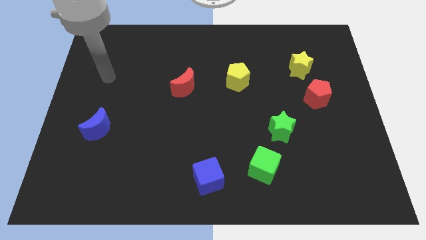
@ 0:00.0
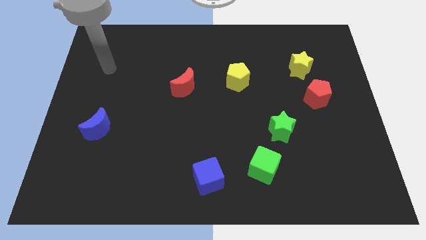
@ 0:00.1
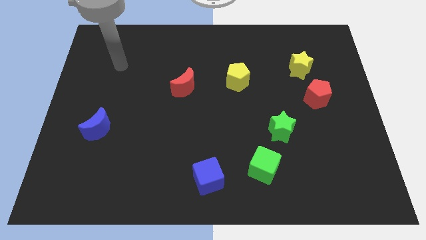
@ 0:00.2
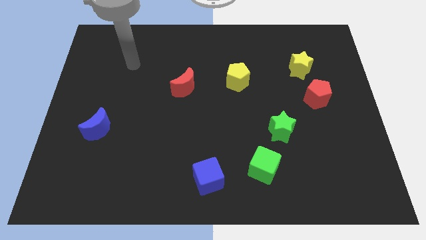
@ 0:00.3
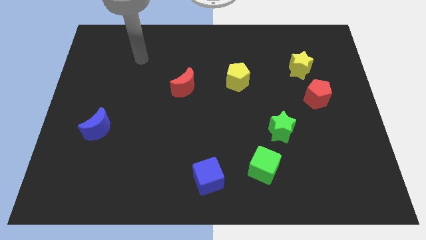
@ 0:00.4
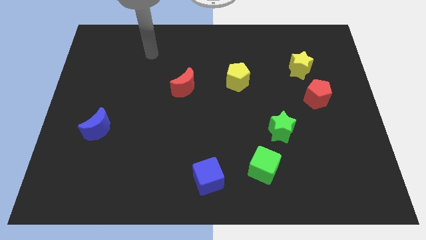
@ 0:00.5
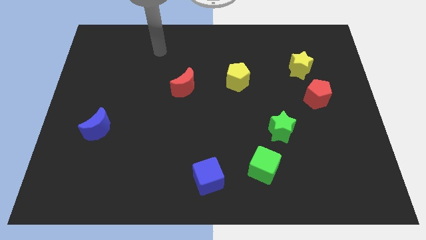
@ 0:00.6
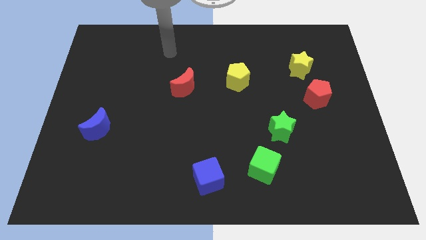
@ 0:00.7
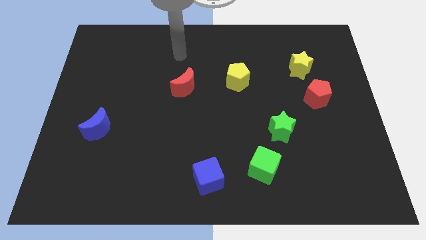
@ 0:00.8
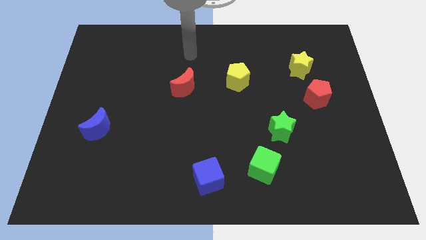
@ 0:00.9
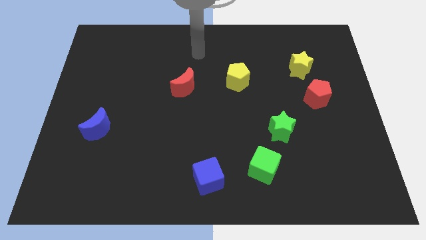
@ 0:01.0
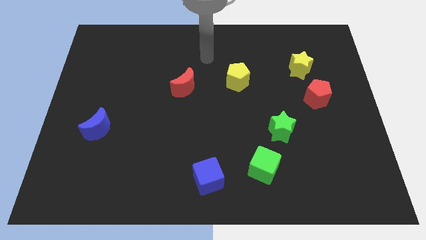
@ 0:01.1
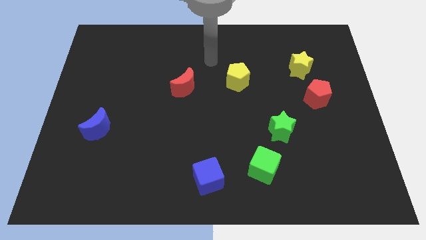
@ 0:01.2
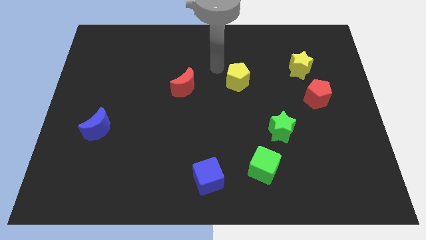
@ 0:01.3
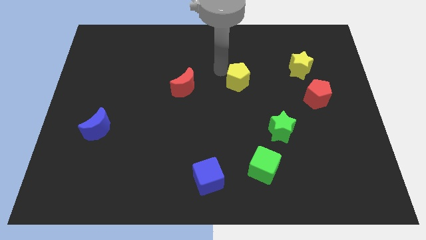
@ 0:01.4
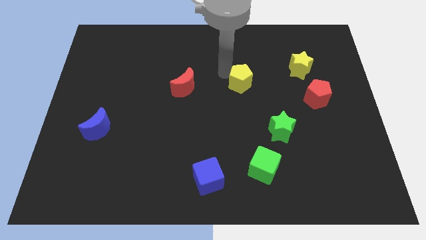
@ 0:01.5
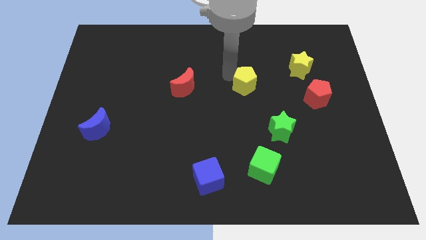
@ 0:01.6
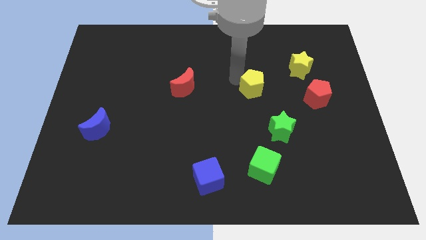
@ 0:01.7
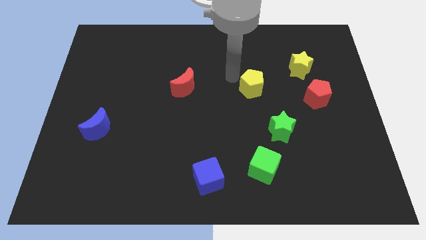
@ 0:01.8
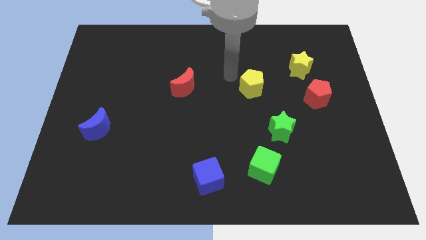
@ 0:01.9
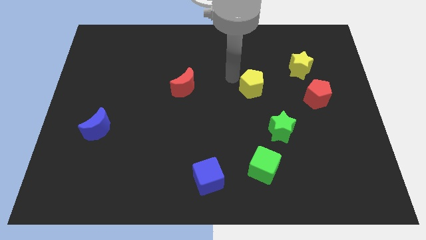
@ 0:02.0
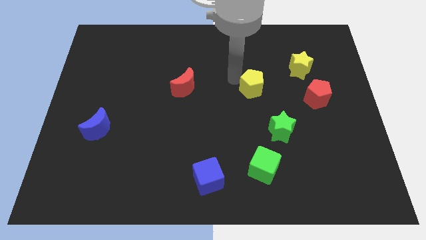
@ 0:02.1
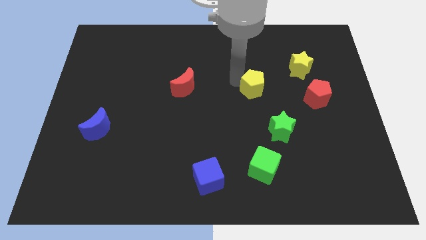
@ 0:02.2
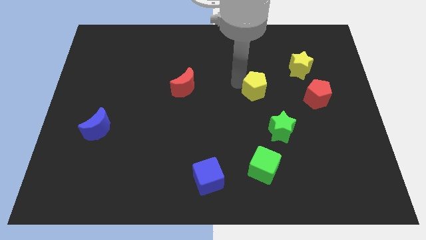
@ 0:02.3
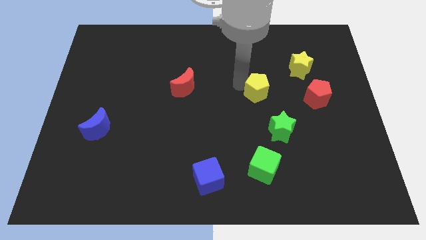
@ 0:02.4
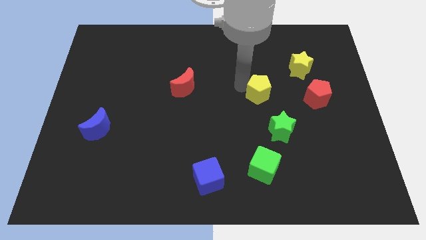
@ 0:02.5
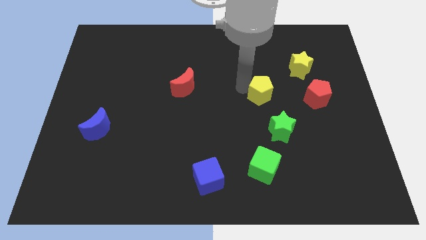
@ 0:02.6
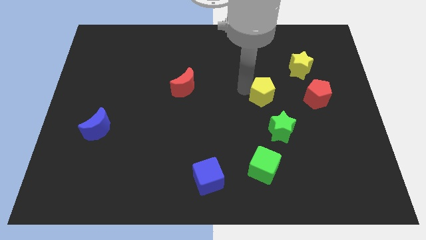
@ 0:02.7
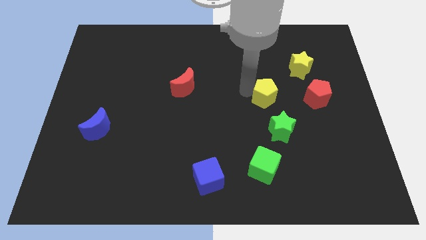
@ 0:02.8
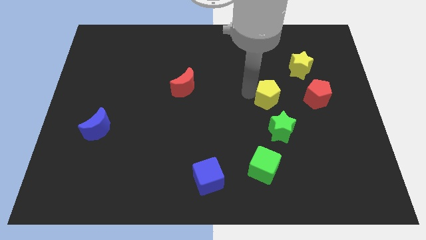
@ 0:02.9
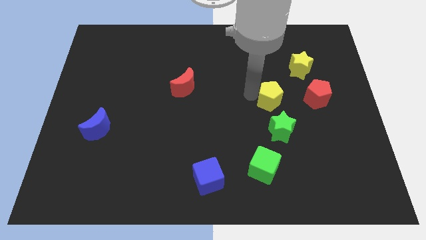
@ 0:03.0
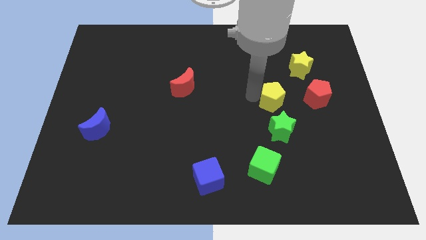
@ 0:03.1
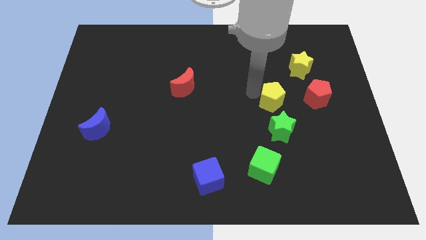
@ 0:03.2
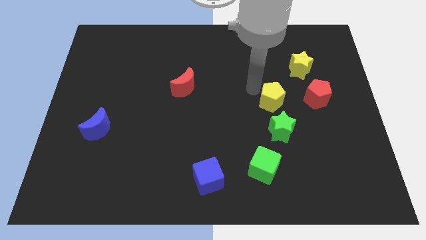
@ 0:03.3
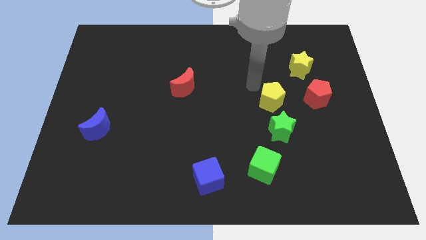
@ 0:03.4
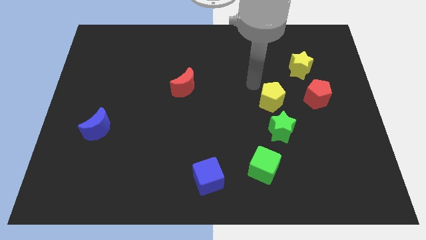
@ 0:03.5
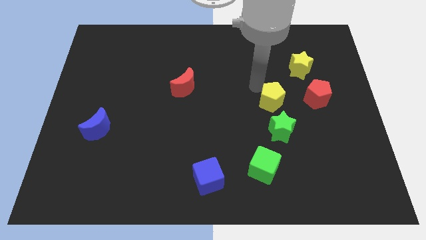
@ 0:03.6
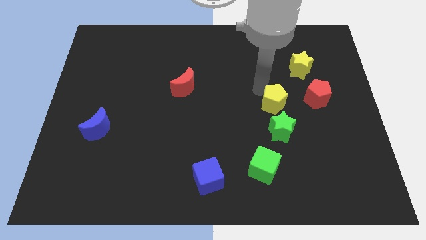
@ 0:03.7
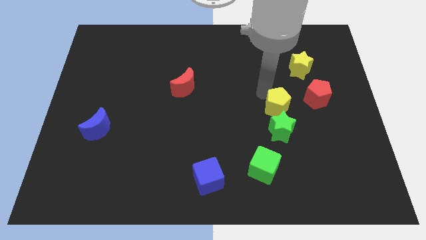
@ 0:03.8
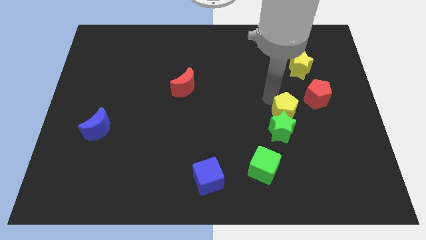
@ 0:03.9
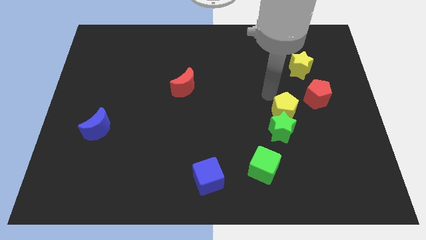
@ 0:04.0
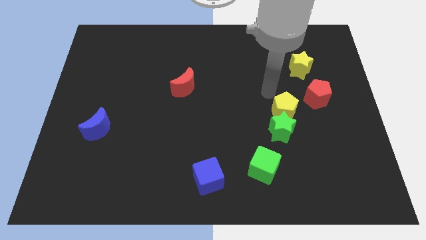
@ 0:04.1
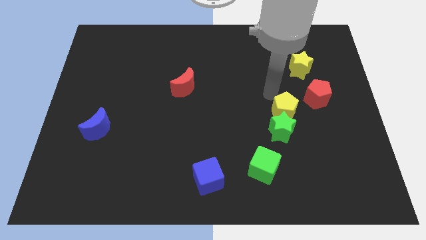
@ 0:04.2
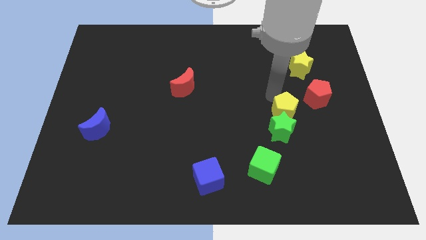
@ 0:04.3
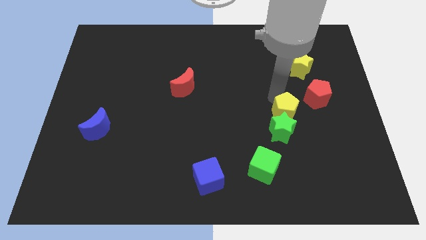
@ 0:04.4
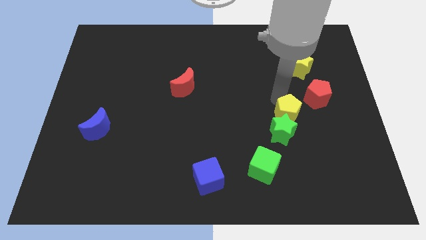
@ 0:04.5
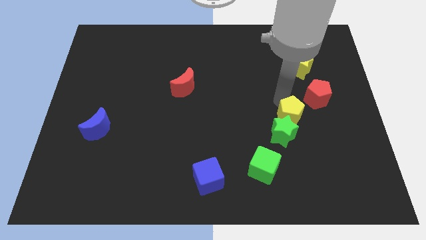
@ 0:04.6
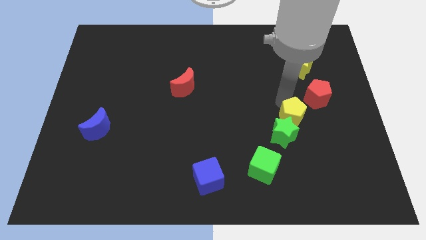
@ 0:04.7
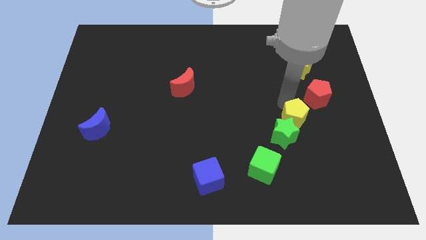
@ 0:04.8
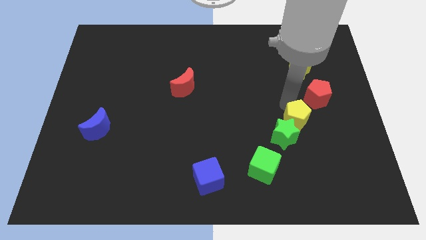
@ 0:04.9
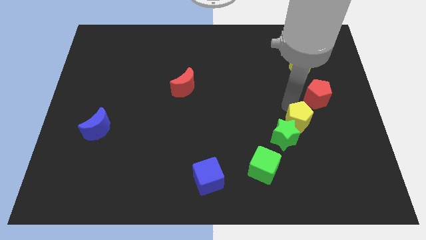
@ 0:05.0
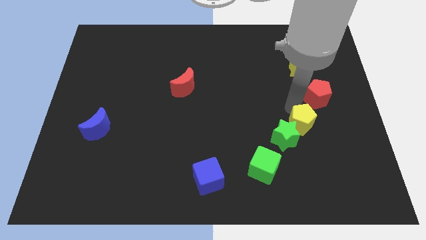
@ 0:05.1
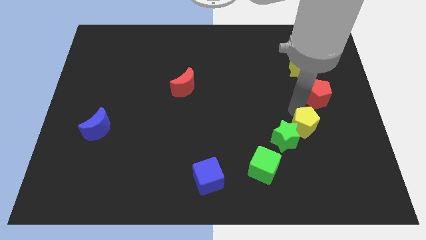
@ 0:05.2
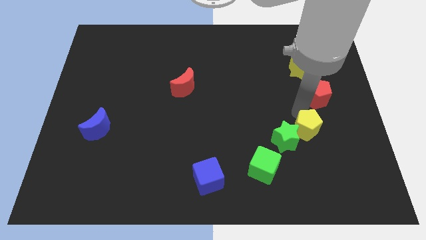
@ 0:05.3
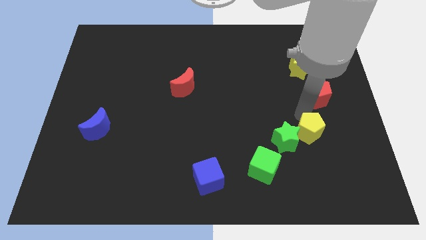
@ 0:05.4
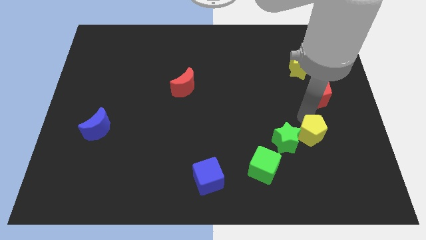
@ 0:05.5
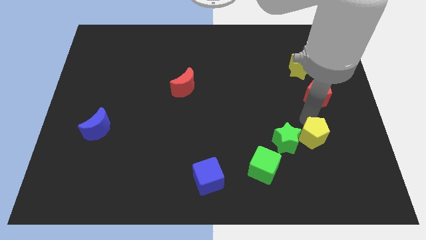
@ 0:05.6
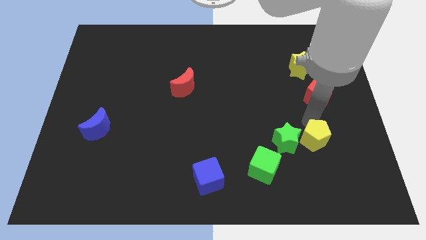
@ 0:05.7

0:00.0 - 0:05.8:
push the yellow pentagon to the bottom right side of the green star

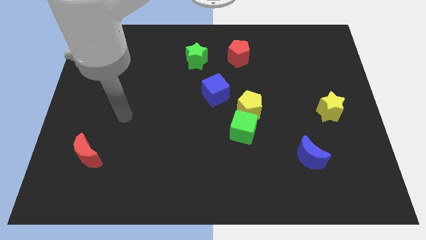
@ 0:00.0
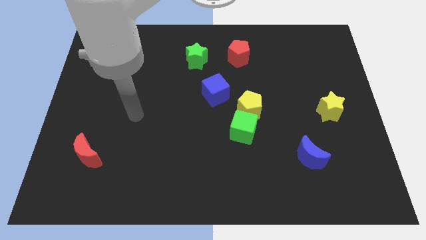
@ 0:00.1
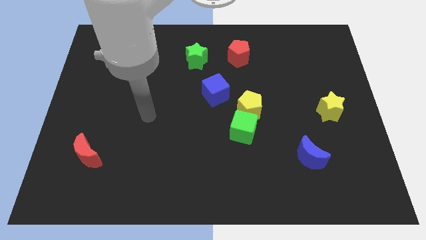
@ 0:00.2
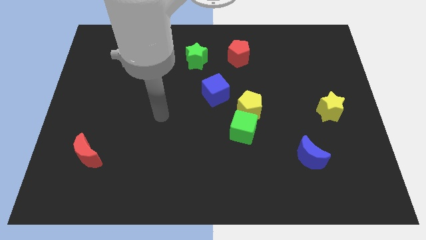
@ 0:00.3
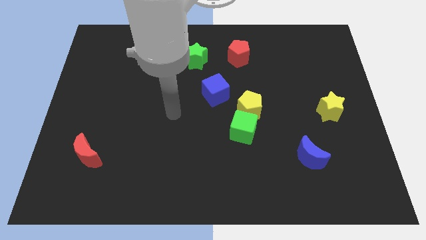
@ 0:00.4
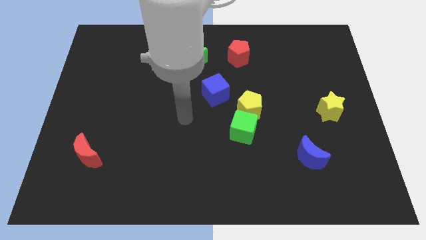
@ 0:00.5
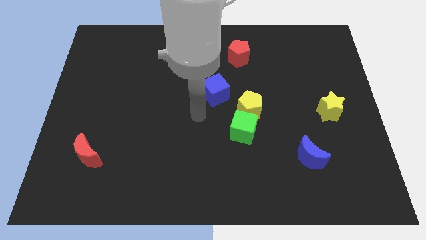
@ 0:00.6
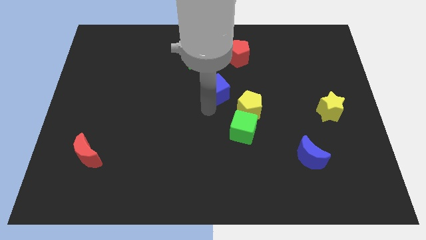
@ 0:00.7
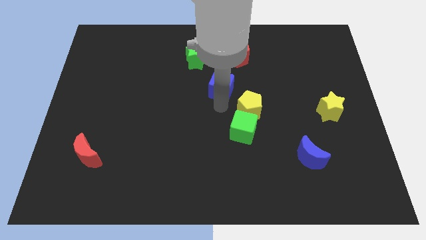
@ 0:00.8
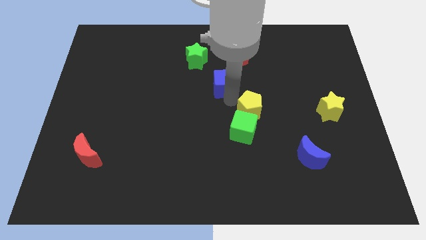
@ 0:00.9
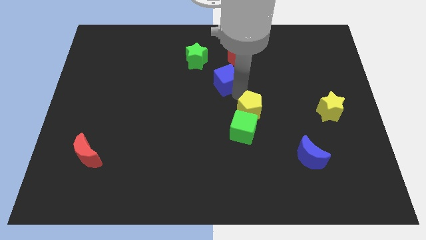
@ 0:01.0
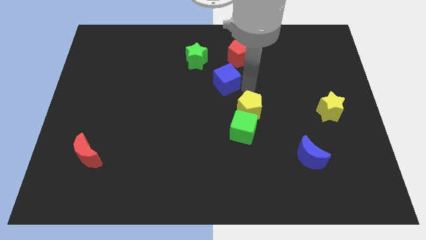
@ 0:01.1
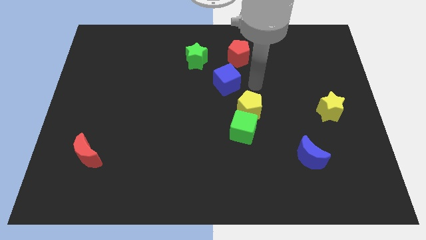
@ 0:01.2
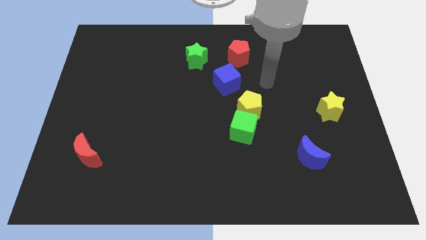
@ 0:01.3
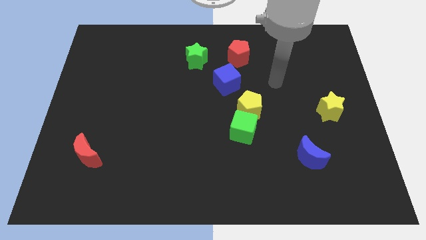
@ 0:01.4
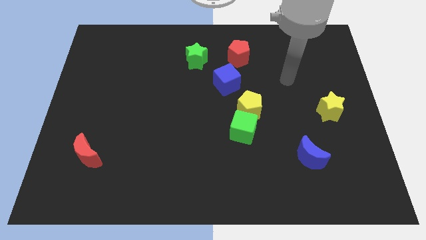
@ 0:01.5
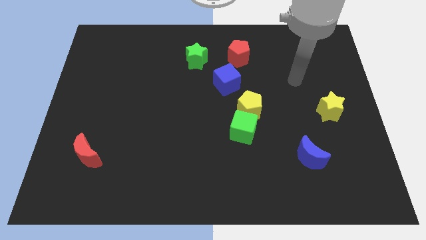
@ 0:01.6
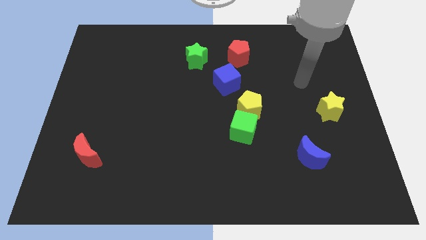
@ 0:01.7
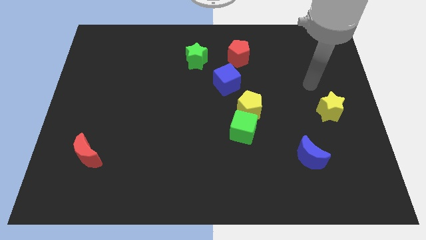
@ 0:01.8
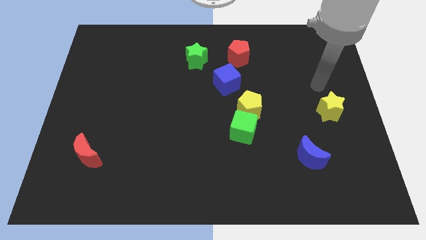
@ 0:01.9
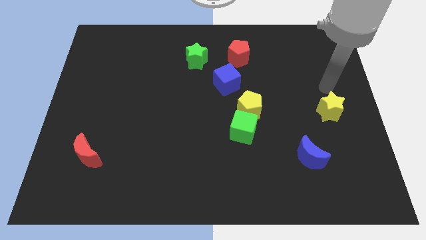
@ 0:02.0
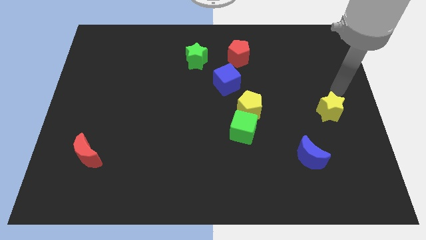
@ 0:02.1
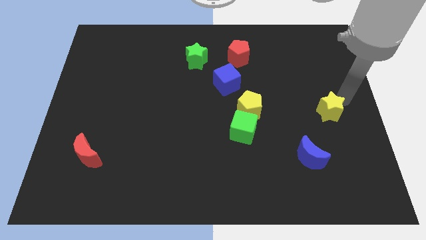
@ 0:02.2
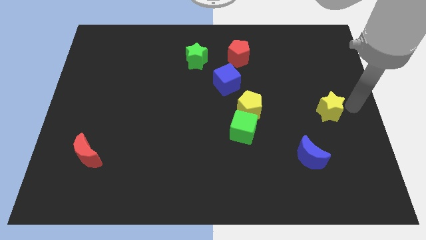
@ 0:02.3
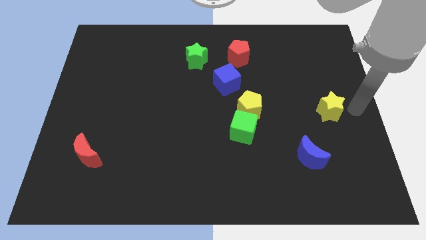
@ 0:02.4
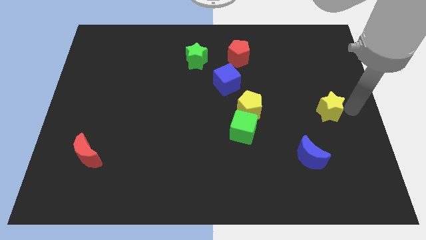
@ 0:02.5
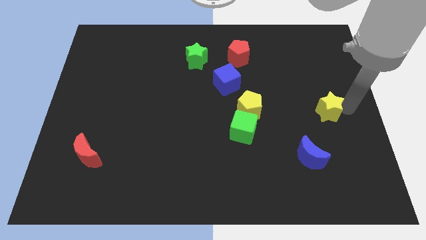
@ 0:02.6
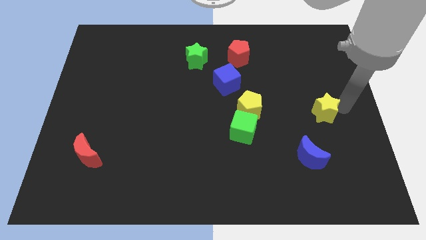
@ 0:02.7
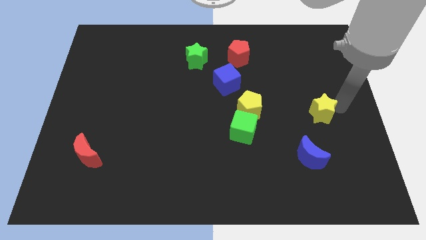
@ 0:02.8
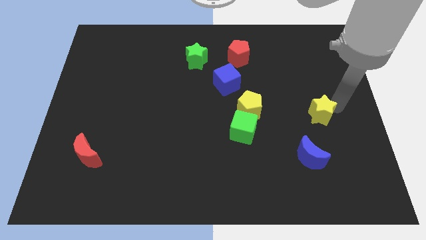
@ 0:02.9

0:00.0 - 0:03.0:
slide the yellow star to the right side of the yellow pentagon
